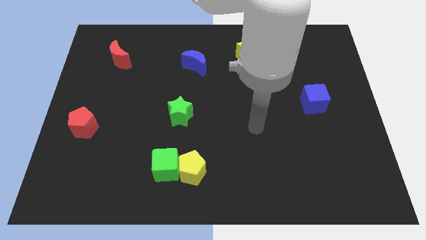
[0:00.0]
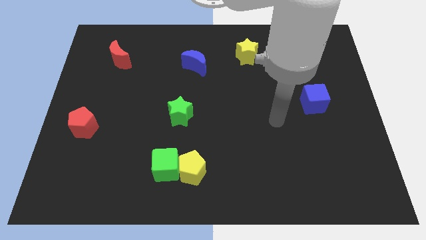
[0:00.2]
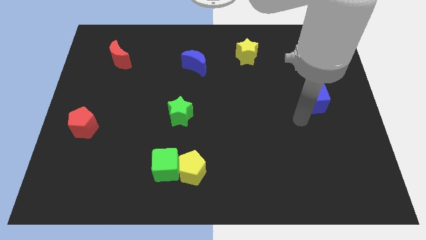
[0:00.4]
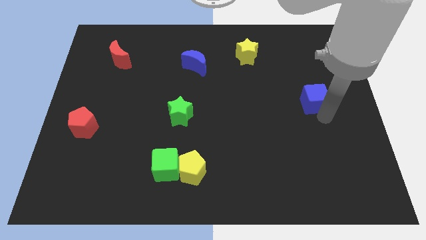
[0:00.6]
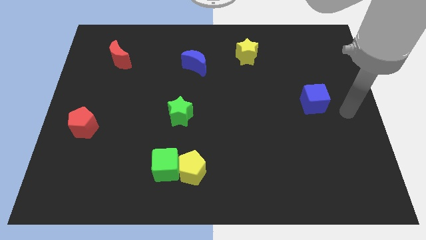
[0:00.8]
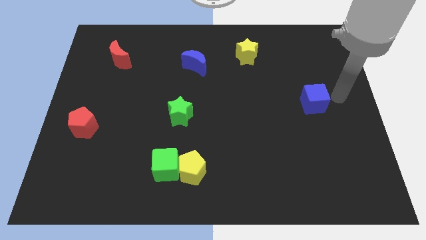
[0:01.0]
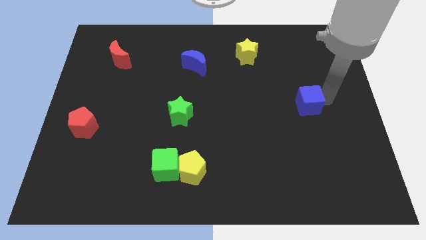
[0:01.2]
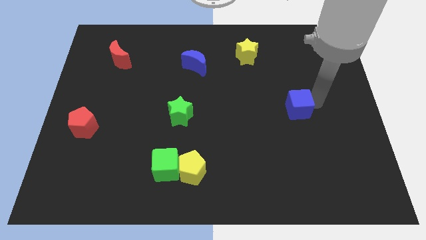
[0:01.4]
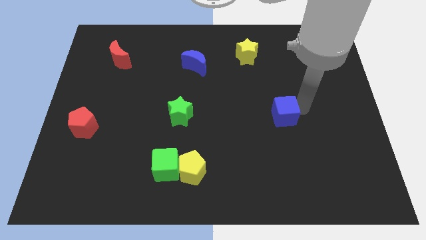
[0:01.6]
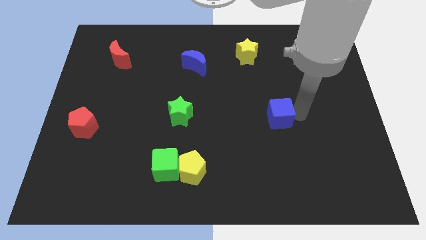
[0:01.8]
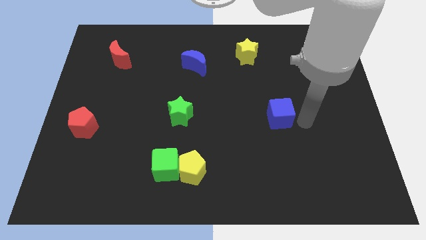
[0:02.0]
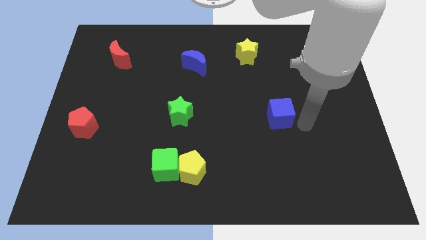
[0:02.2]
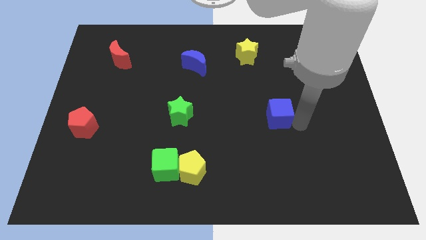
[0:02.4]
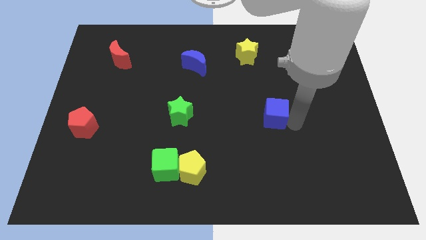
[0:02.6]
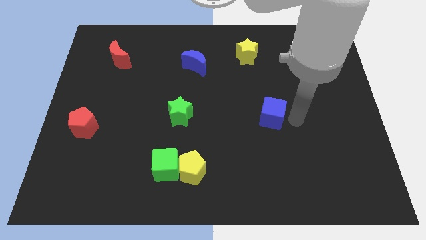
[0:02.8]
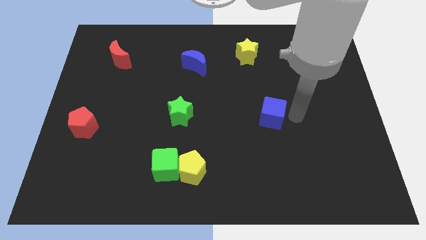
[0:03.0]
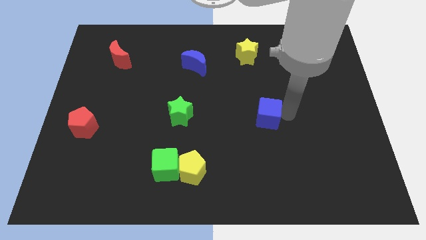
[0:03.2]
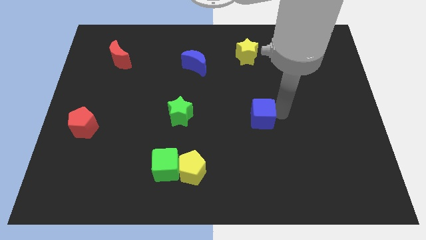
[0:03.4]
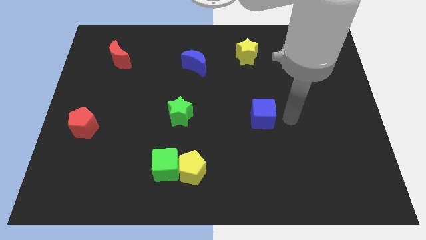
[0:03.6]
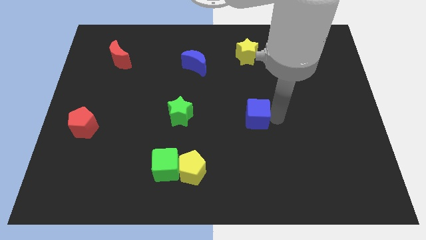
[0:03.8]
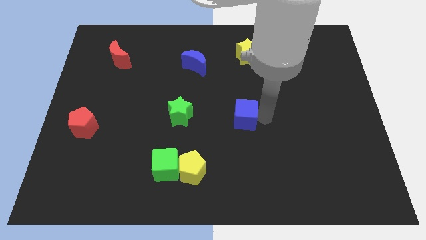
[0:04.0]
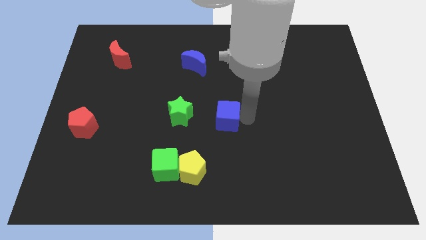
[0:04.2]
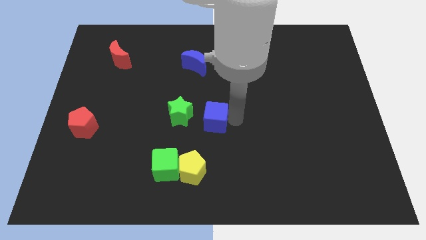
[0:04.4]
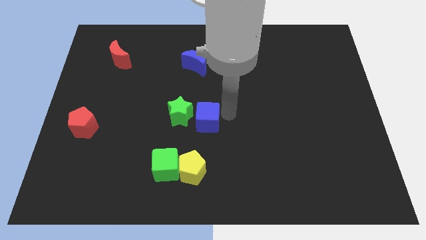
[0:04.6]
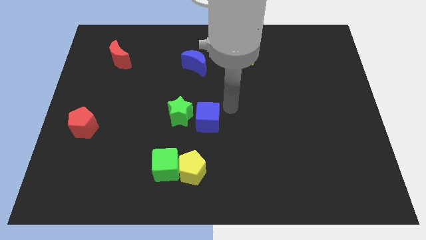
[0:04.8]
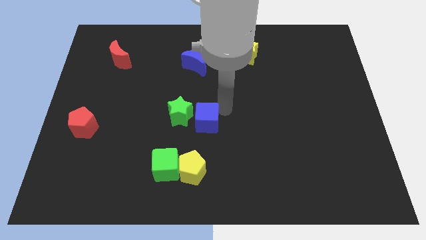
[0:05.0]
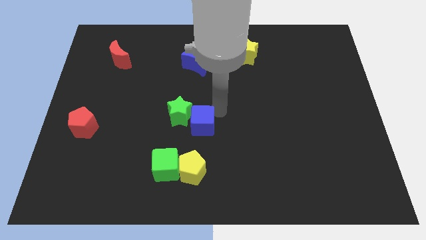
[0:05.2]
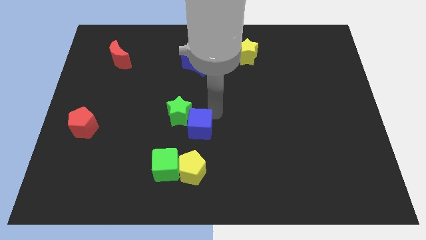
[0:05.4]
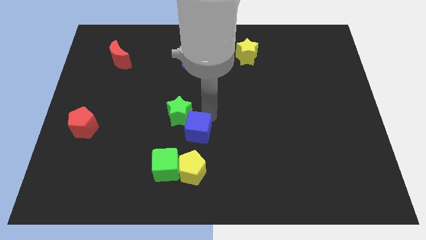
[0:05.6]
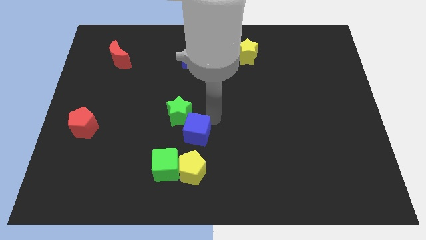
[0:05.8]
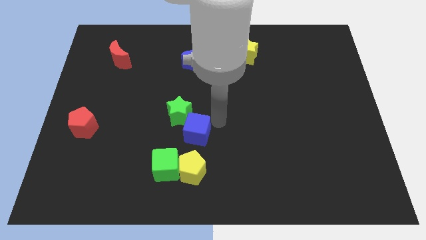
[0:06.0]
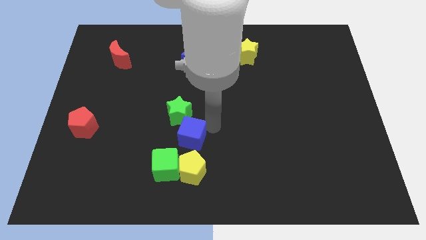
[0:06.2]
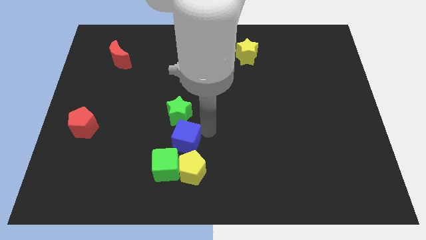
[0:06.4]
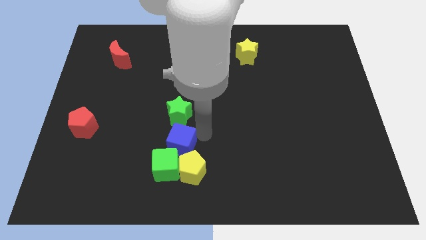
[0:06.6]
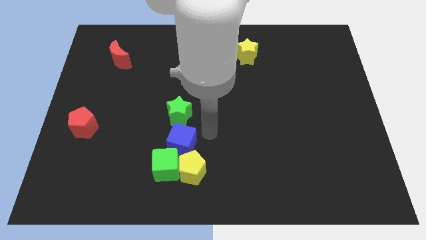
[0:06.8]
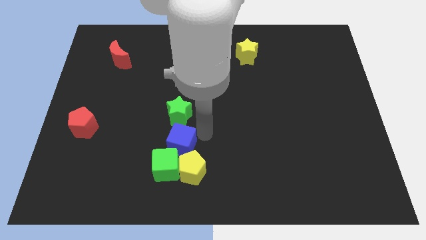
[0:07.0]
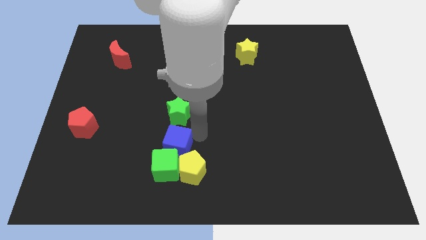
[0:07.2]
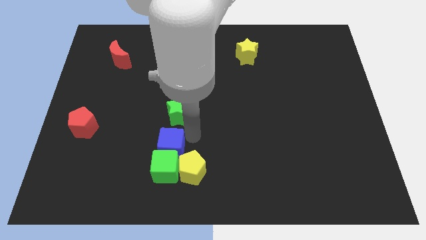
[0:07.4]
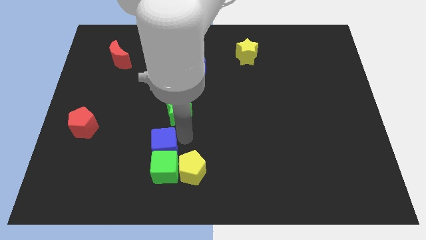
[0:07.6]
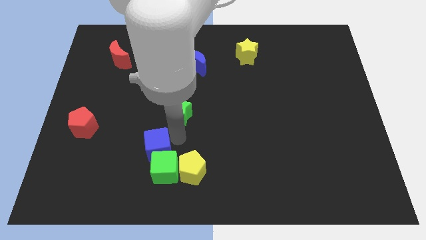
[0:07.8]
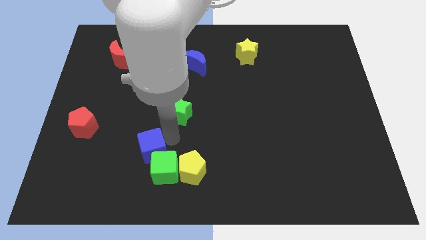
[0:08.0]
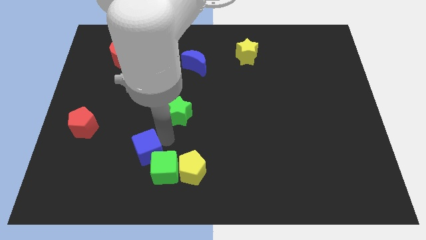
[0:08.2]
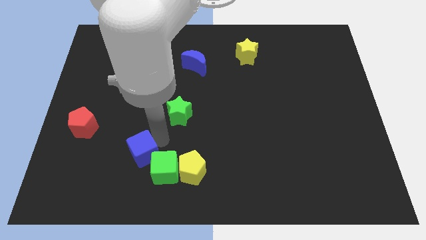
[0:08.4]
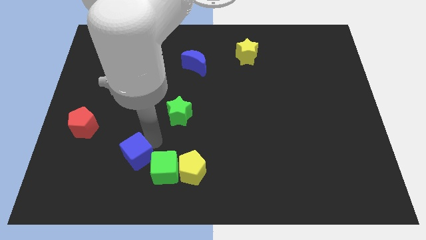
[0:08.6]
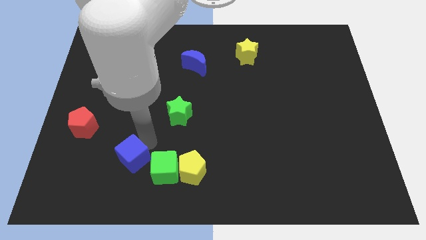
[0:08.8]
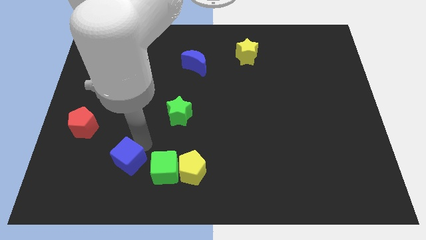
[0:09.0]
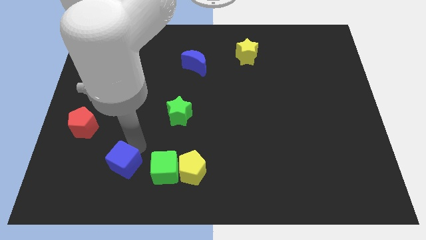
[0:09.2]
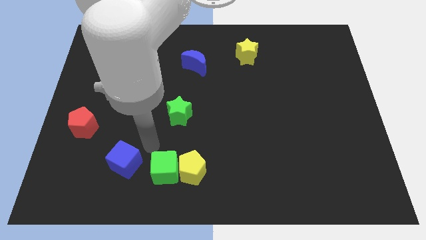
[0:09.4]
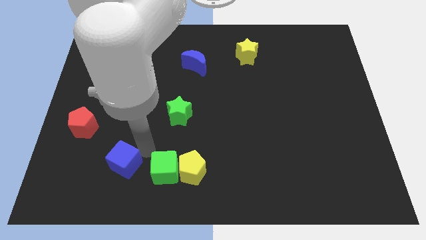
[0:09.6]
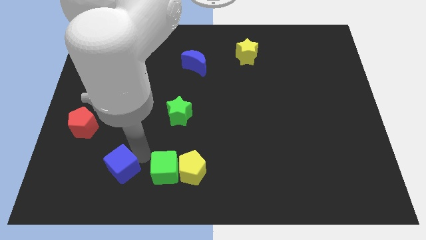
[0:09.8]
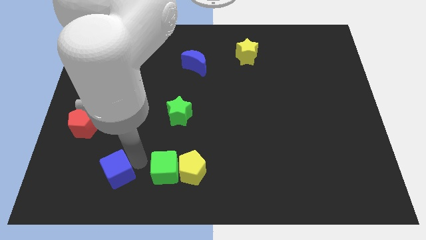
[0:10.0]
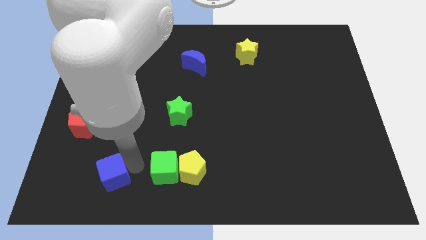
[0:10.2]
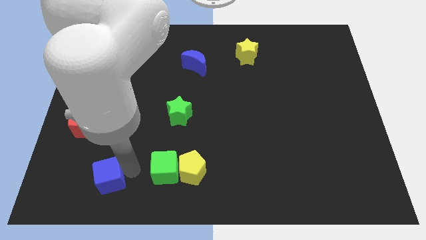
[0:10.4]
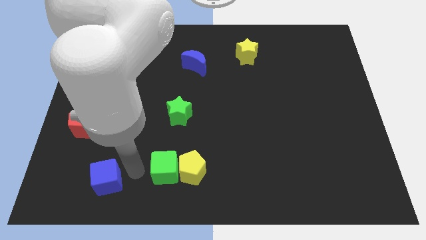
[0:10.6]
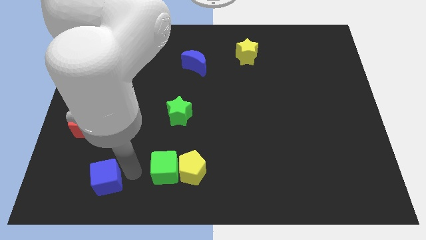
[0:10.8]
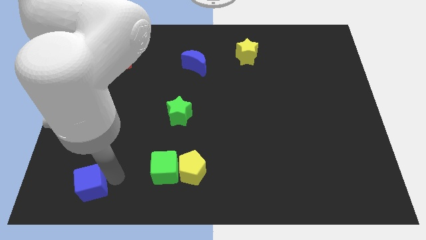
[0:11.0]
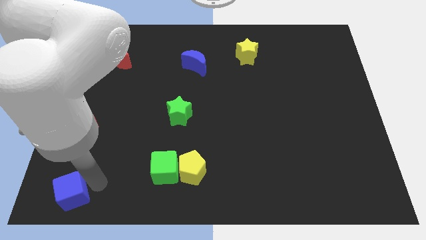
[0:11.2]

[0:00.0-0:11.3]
move the blue cube to the lower left corner
